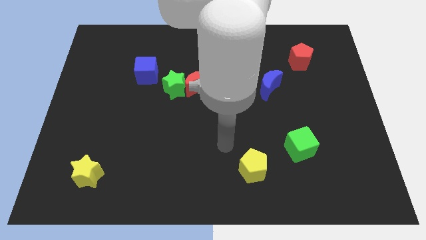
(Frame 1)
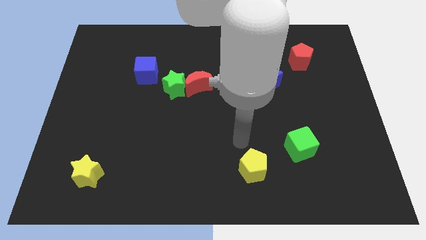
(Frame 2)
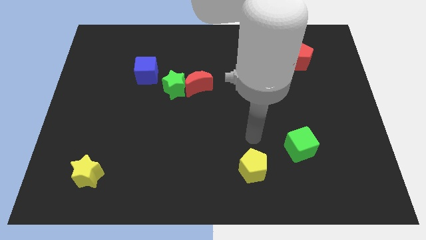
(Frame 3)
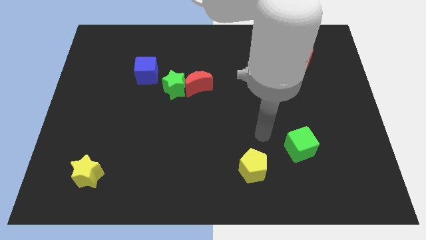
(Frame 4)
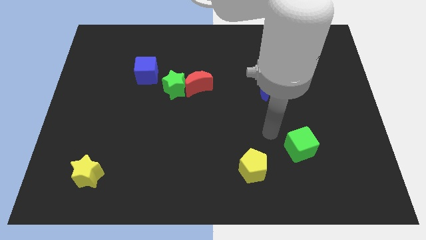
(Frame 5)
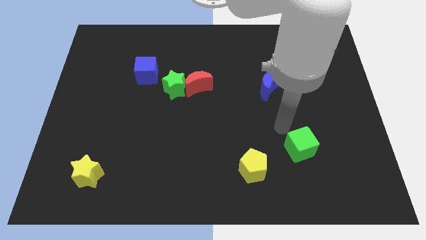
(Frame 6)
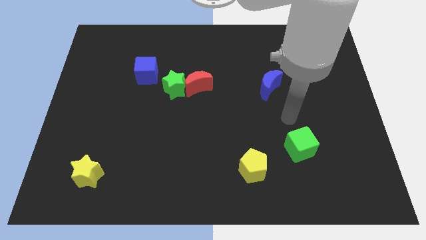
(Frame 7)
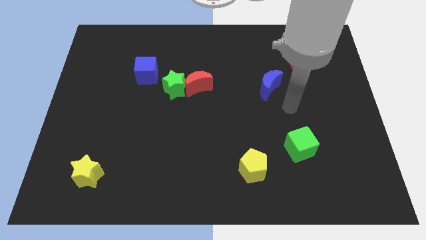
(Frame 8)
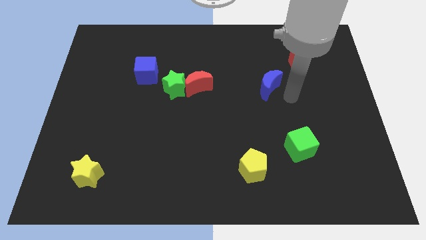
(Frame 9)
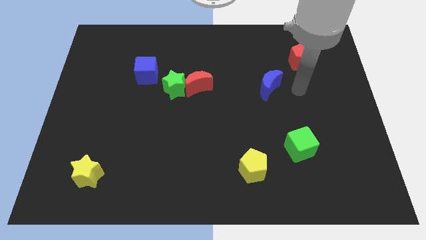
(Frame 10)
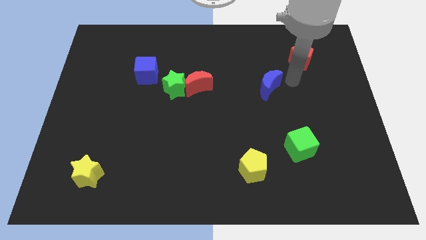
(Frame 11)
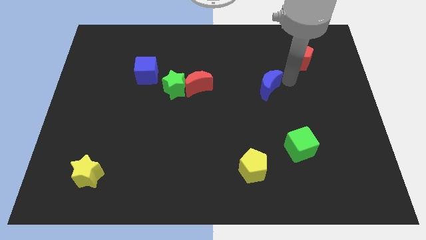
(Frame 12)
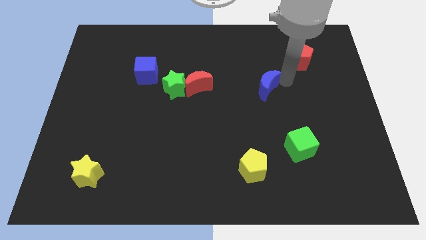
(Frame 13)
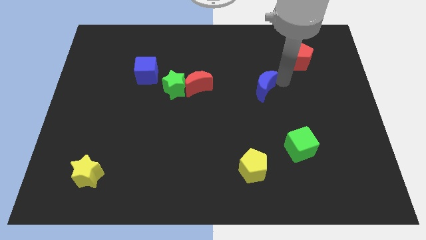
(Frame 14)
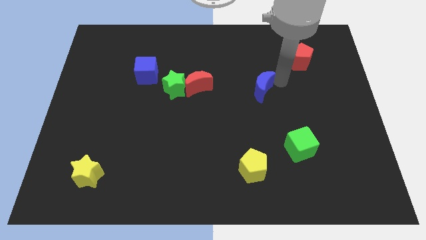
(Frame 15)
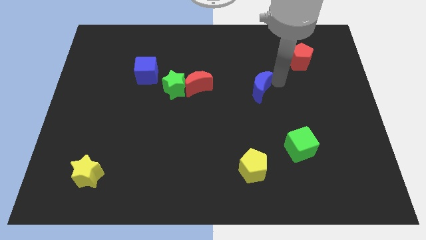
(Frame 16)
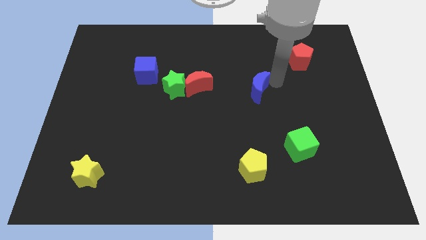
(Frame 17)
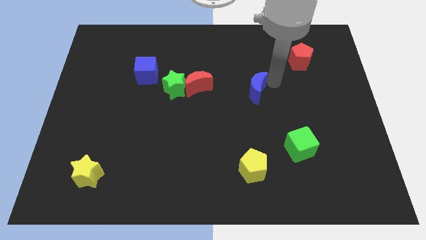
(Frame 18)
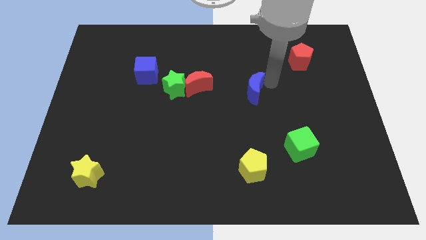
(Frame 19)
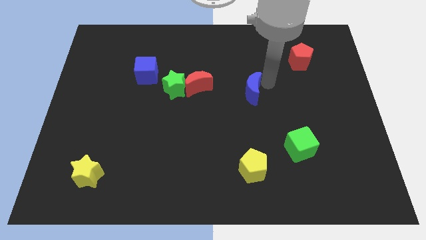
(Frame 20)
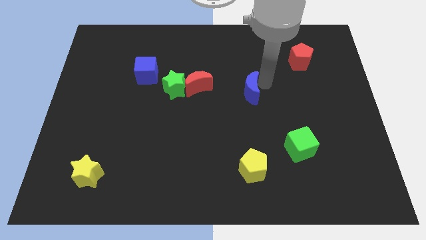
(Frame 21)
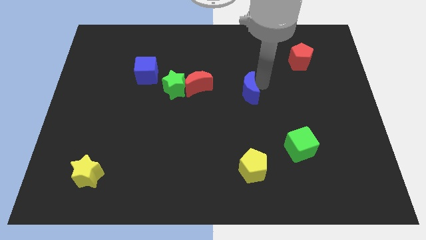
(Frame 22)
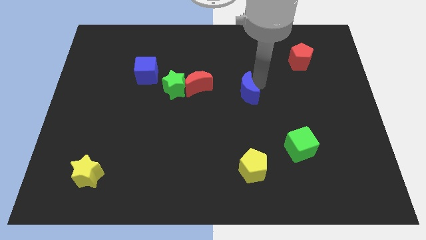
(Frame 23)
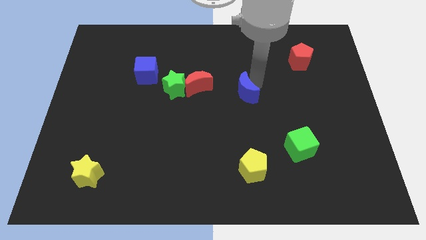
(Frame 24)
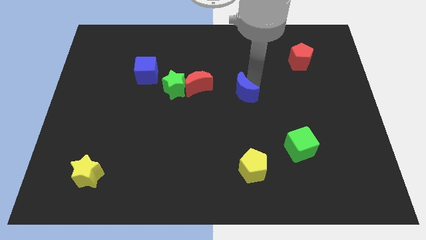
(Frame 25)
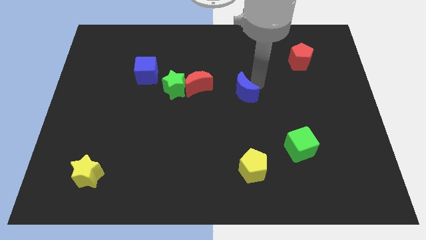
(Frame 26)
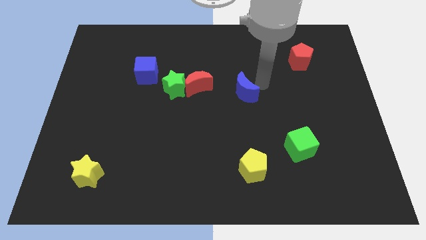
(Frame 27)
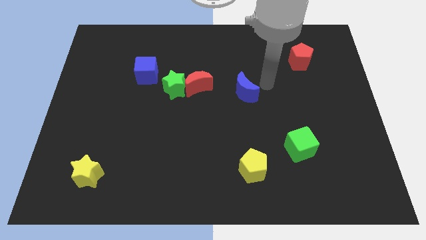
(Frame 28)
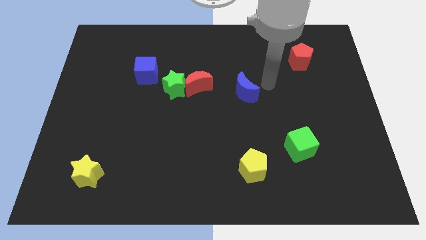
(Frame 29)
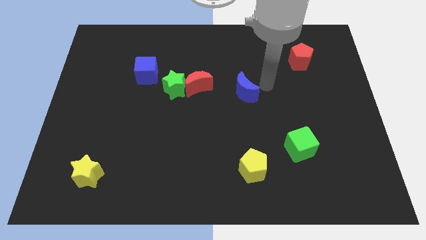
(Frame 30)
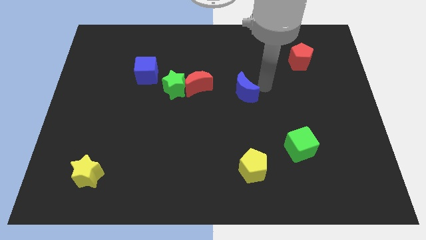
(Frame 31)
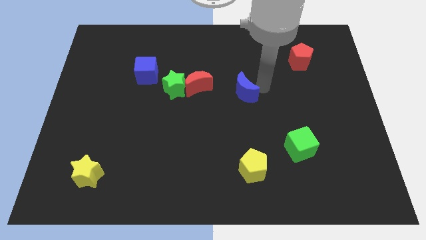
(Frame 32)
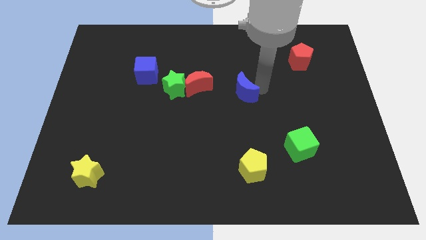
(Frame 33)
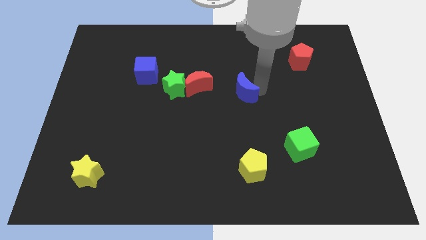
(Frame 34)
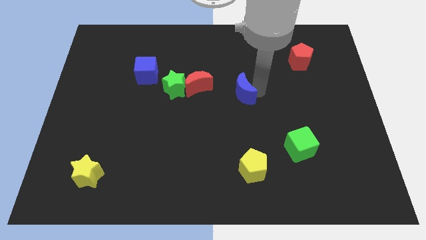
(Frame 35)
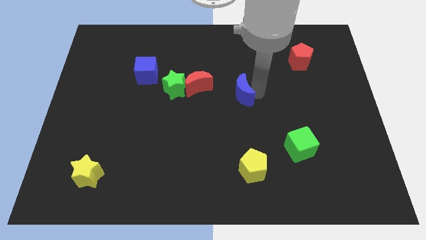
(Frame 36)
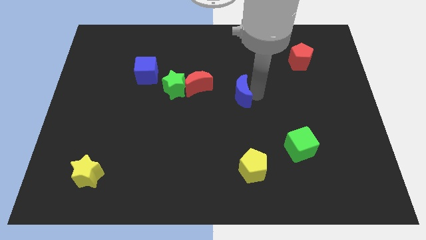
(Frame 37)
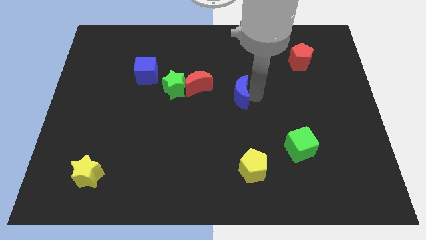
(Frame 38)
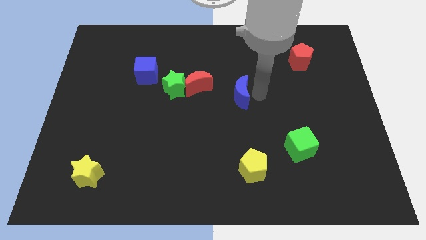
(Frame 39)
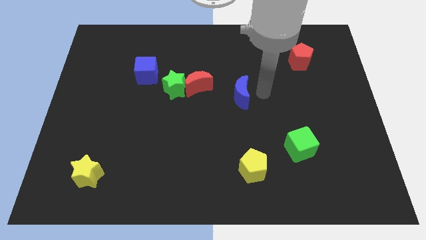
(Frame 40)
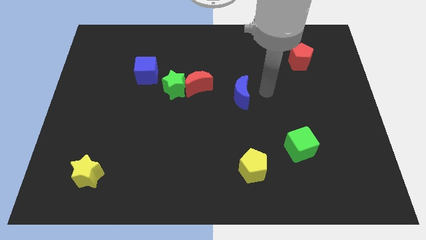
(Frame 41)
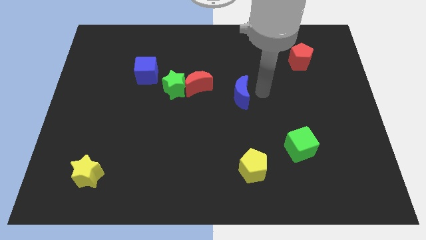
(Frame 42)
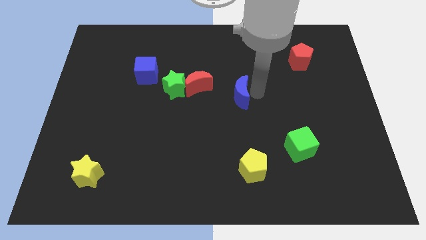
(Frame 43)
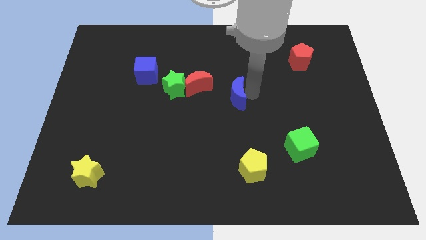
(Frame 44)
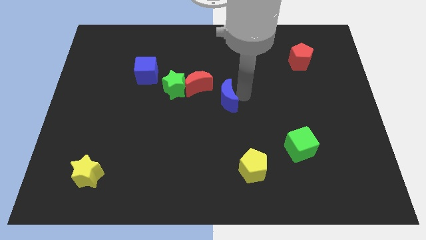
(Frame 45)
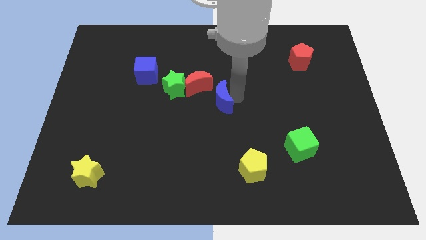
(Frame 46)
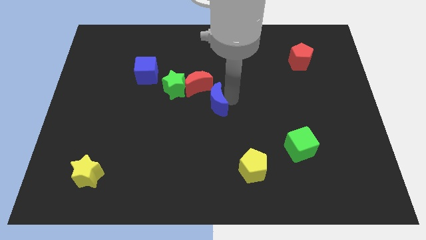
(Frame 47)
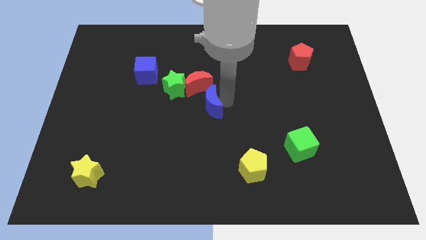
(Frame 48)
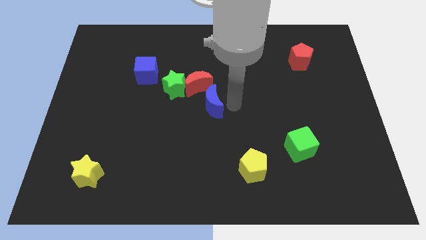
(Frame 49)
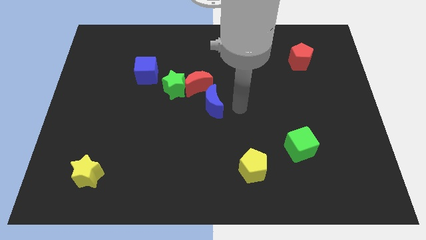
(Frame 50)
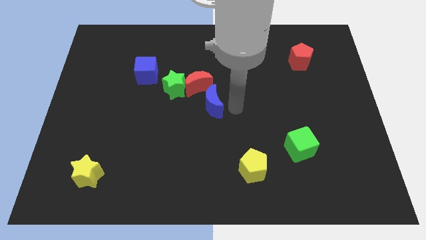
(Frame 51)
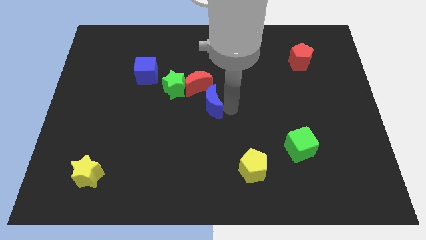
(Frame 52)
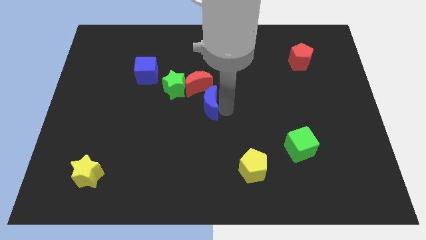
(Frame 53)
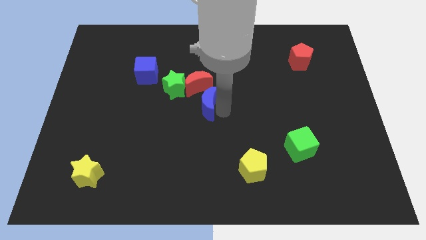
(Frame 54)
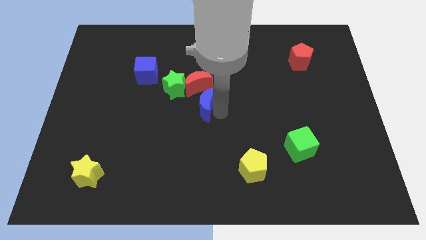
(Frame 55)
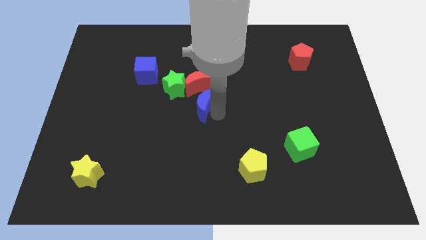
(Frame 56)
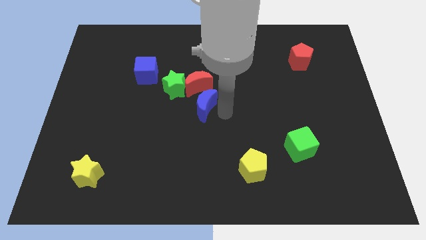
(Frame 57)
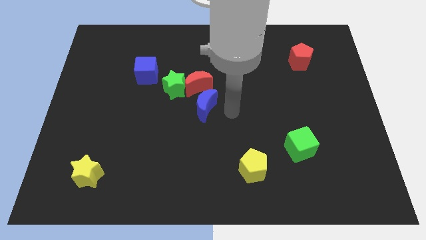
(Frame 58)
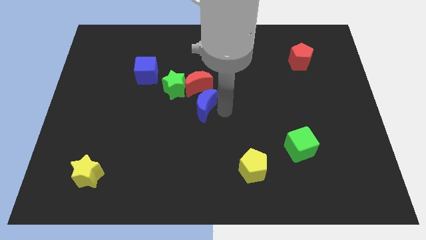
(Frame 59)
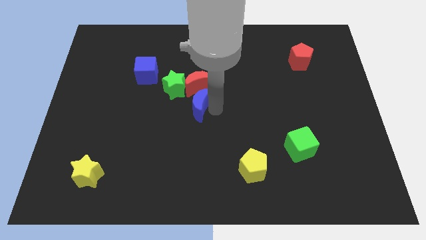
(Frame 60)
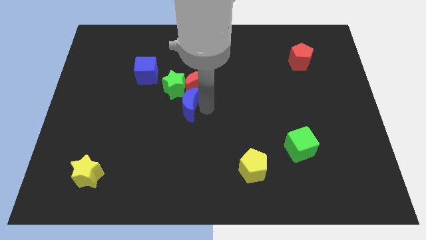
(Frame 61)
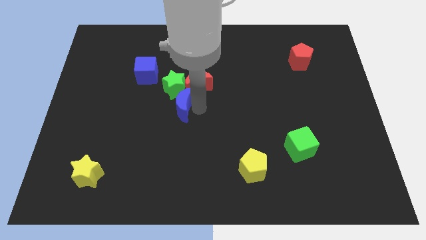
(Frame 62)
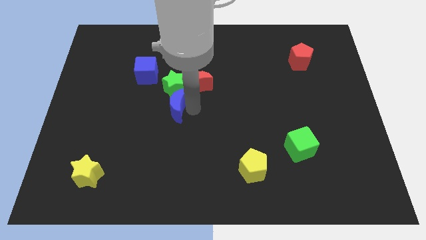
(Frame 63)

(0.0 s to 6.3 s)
push the blue moon to the left

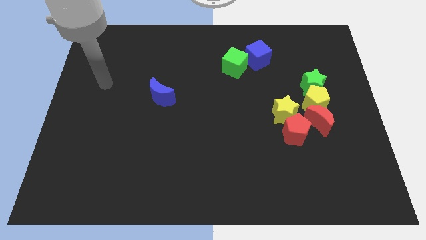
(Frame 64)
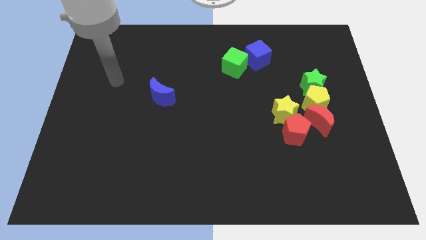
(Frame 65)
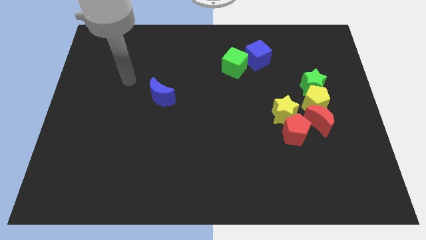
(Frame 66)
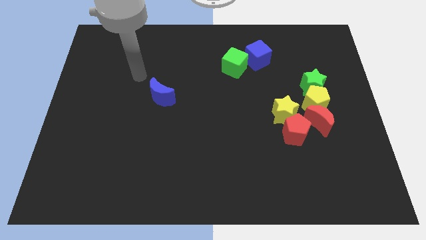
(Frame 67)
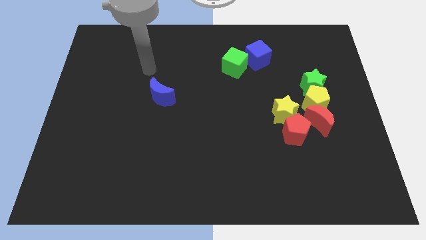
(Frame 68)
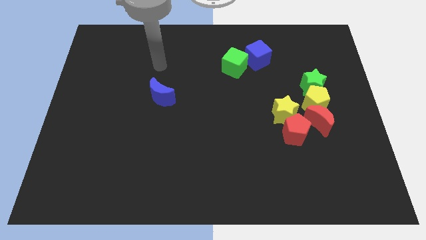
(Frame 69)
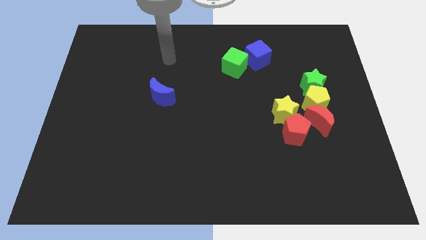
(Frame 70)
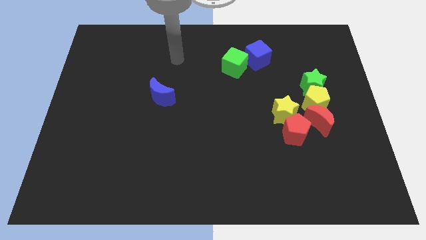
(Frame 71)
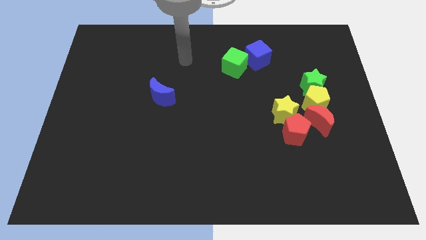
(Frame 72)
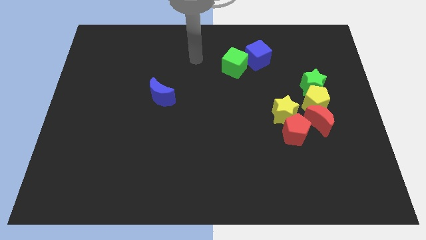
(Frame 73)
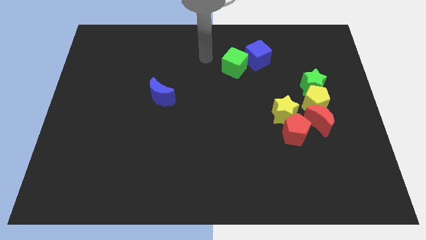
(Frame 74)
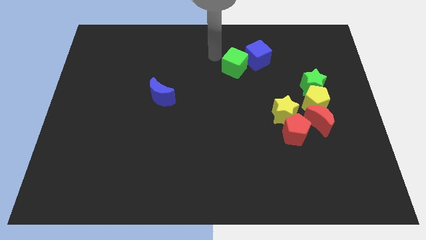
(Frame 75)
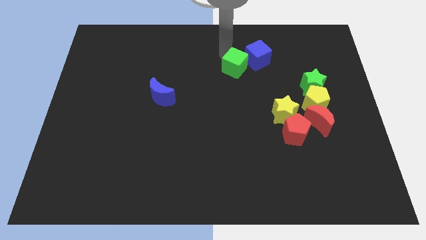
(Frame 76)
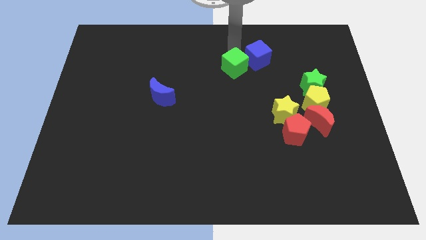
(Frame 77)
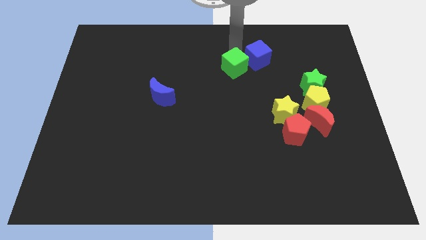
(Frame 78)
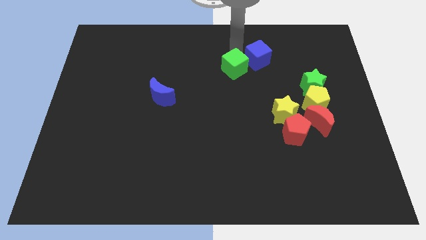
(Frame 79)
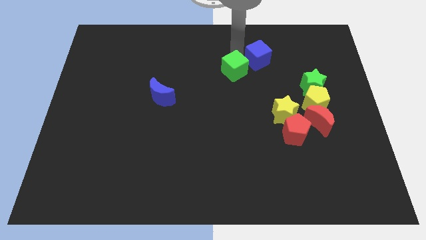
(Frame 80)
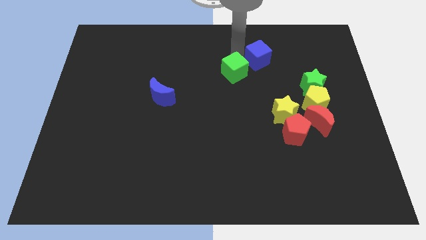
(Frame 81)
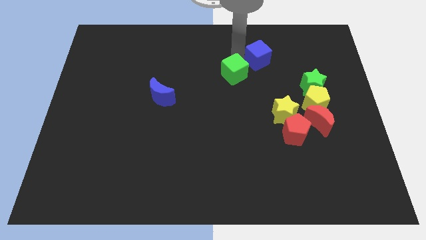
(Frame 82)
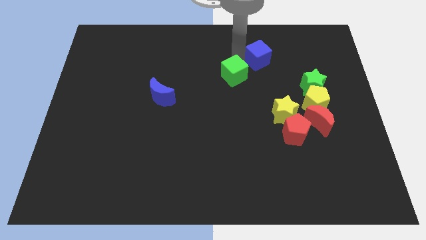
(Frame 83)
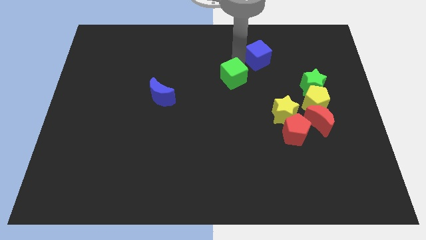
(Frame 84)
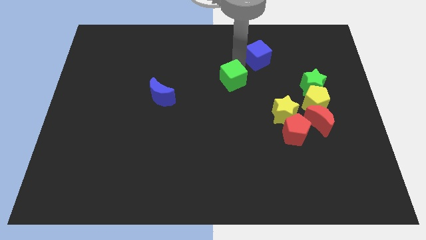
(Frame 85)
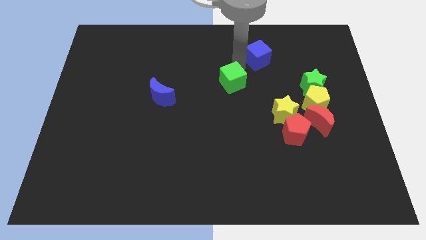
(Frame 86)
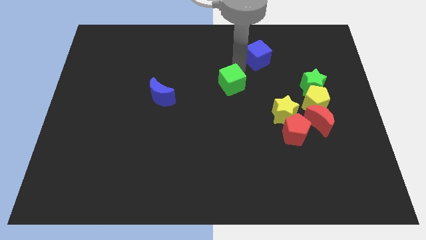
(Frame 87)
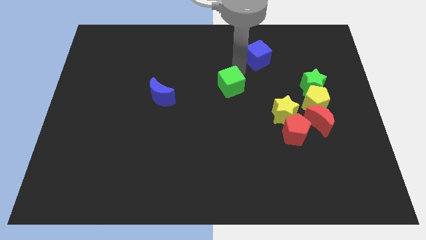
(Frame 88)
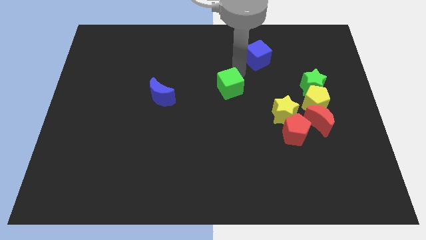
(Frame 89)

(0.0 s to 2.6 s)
slightly move the green cube down
